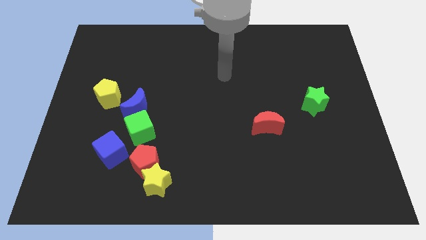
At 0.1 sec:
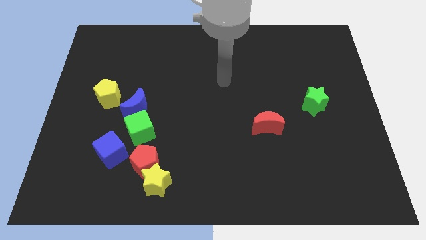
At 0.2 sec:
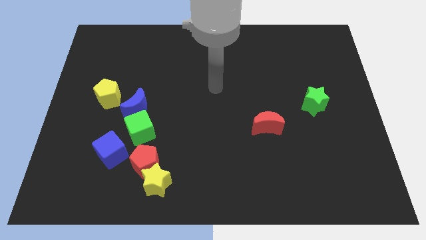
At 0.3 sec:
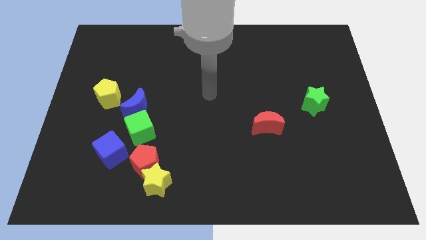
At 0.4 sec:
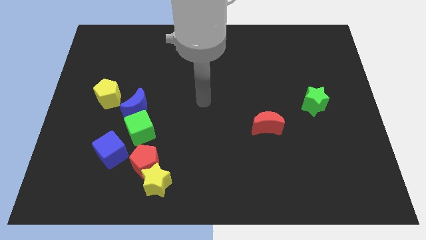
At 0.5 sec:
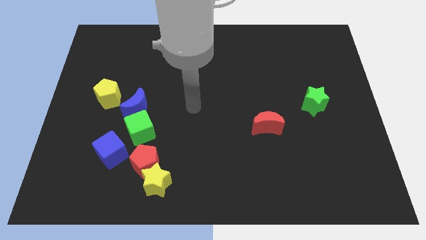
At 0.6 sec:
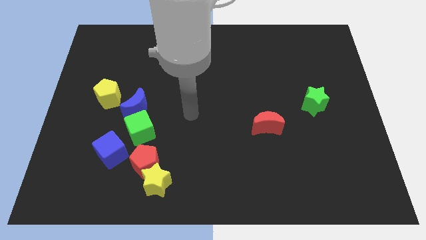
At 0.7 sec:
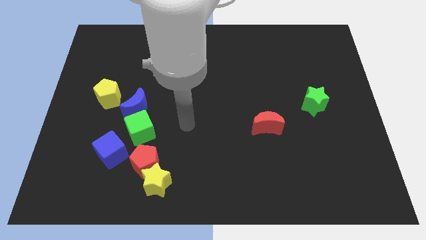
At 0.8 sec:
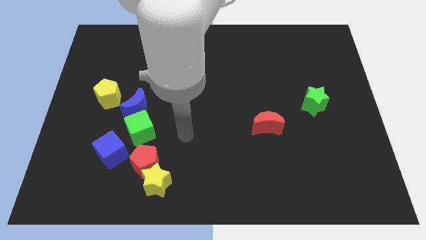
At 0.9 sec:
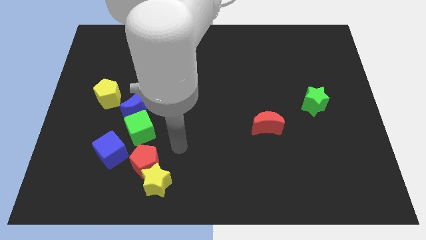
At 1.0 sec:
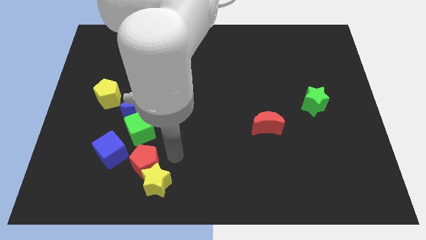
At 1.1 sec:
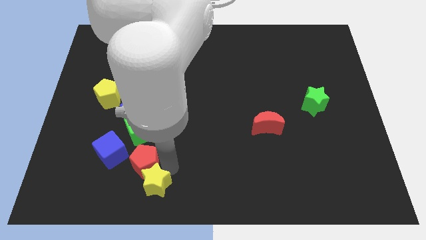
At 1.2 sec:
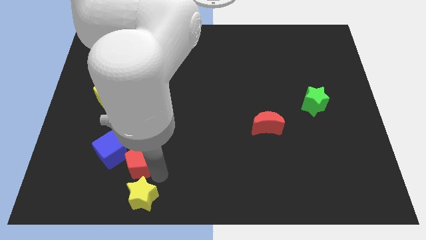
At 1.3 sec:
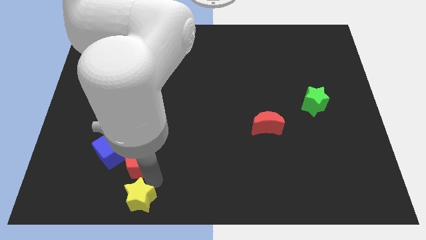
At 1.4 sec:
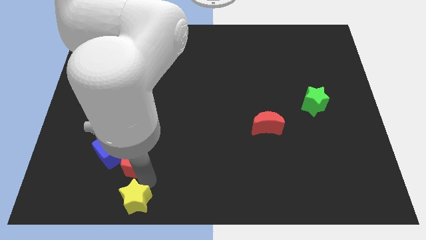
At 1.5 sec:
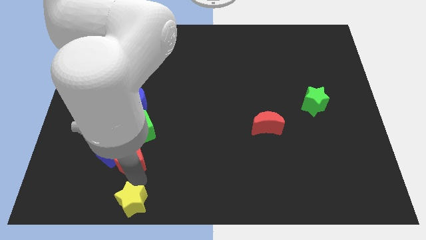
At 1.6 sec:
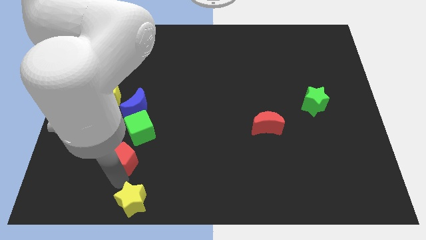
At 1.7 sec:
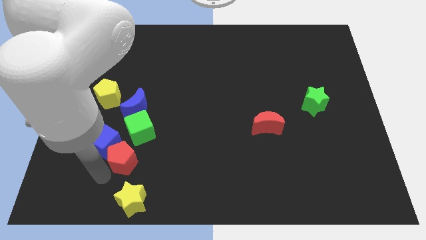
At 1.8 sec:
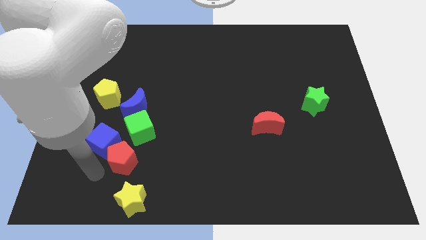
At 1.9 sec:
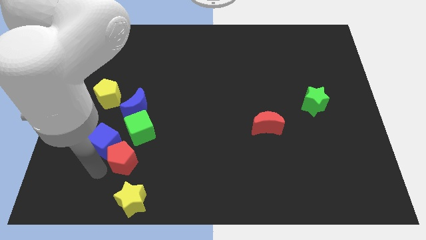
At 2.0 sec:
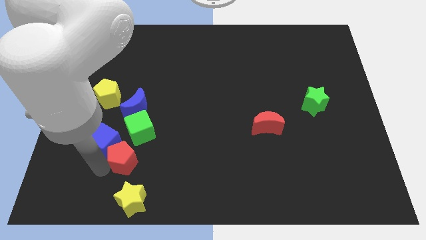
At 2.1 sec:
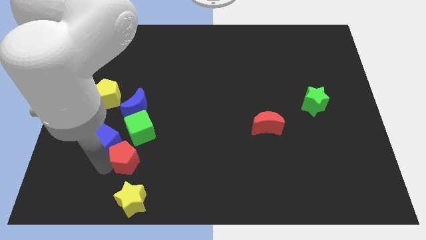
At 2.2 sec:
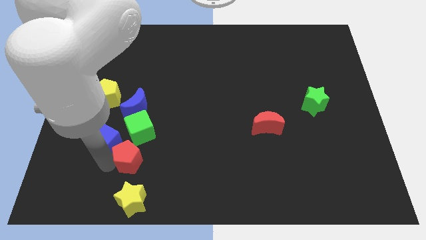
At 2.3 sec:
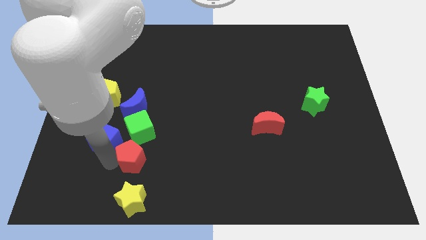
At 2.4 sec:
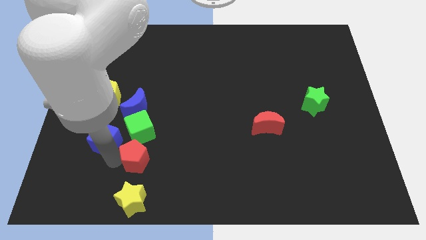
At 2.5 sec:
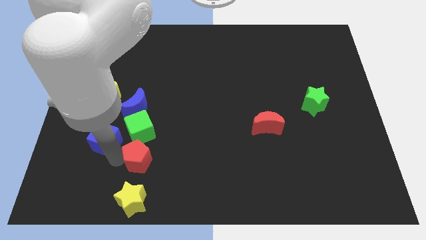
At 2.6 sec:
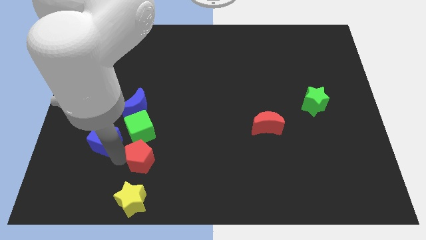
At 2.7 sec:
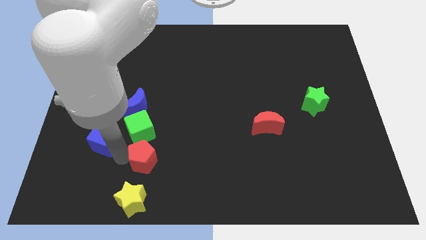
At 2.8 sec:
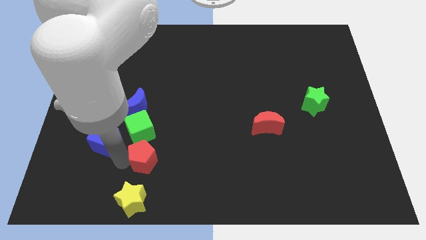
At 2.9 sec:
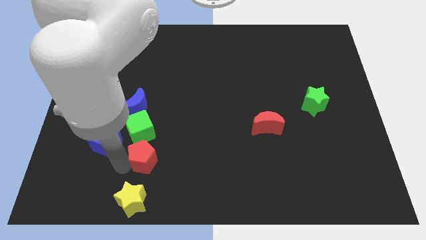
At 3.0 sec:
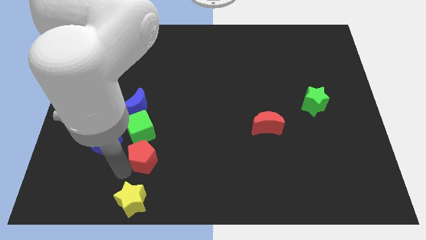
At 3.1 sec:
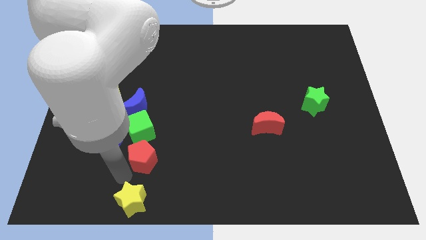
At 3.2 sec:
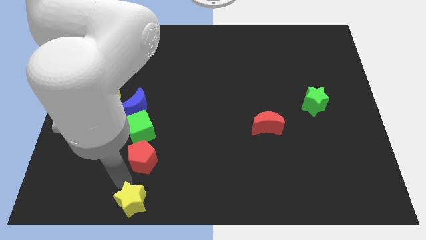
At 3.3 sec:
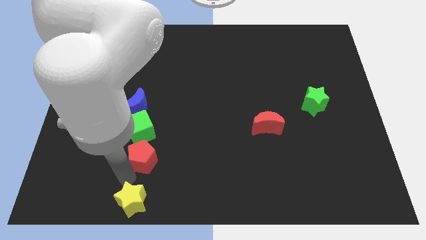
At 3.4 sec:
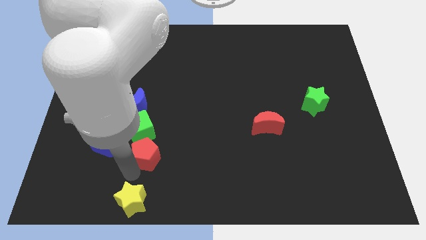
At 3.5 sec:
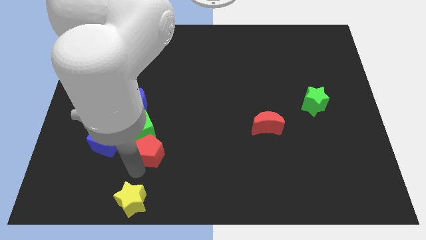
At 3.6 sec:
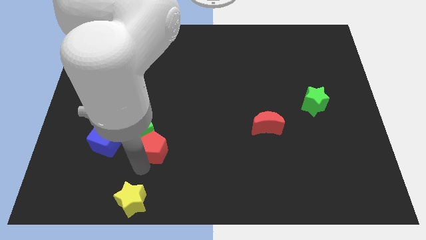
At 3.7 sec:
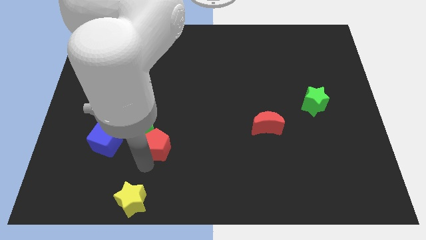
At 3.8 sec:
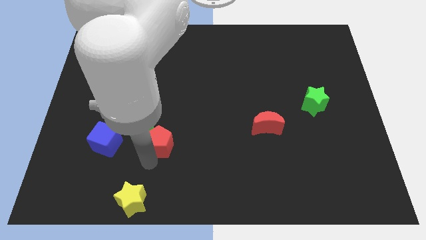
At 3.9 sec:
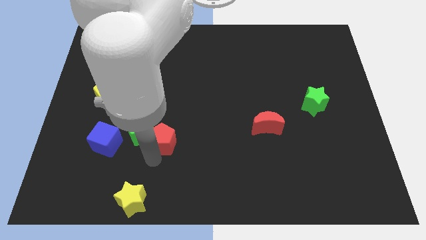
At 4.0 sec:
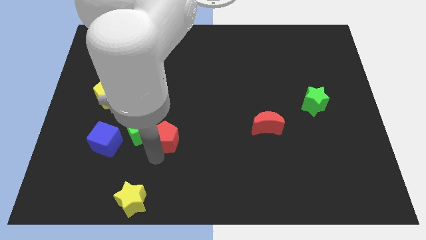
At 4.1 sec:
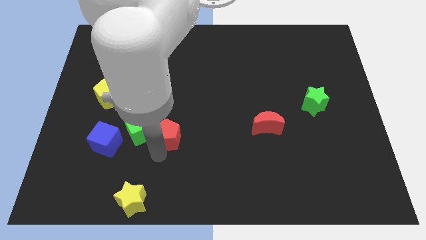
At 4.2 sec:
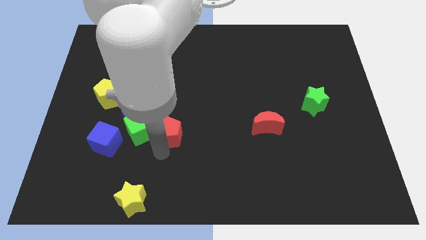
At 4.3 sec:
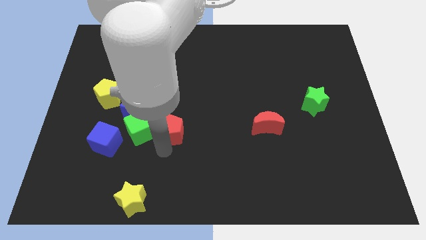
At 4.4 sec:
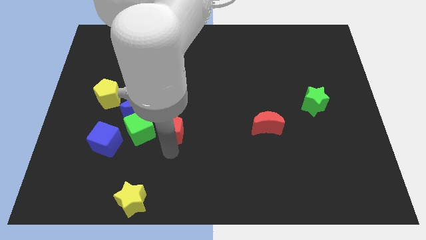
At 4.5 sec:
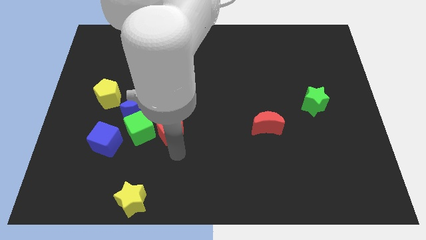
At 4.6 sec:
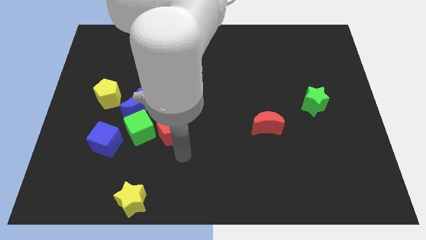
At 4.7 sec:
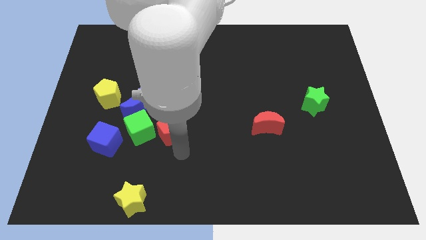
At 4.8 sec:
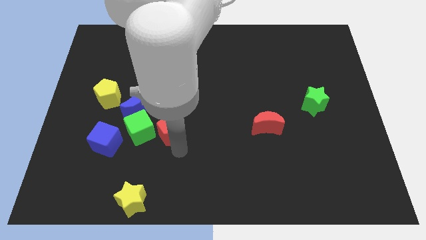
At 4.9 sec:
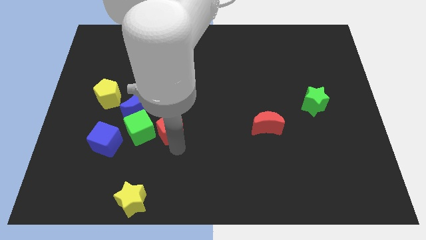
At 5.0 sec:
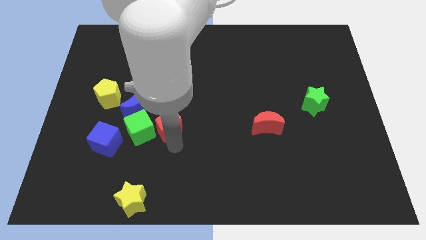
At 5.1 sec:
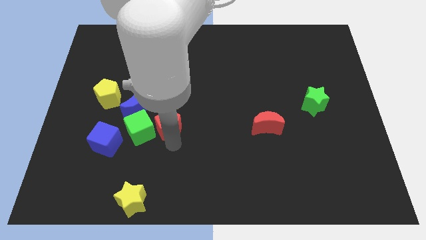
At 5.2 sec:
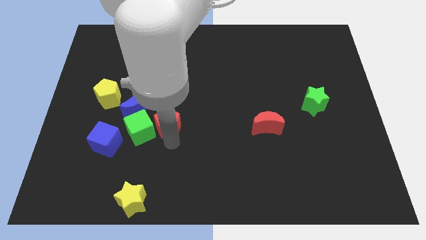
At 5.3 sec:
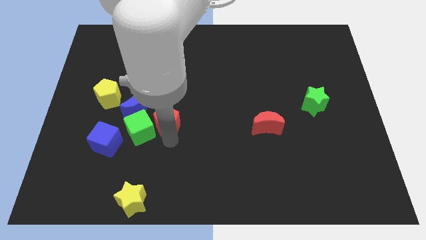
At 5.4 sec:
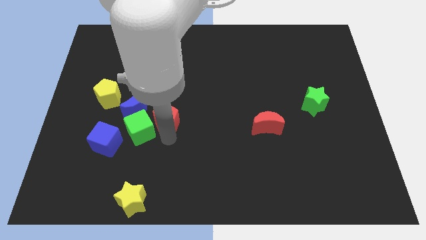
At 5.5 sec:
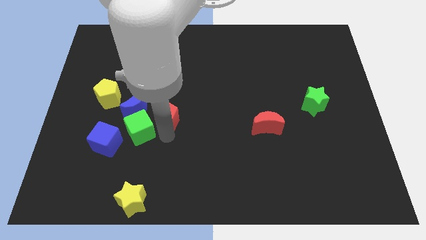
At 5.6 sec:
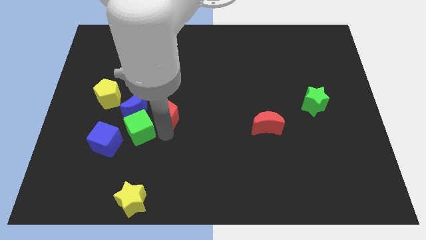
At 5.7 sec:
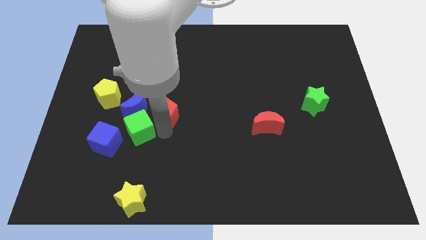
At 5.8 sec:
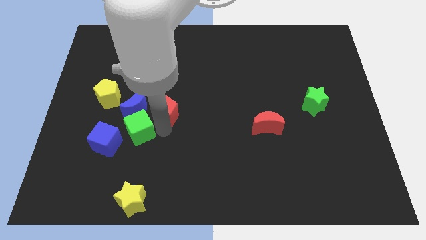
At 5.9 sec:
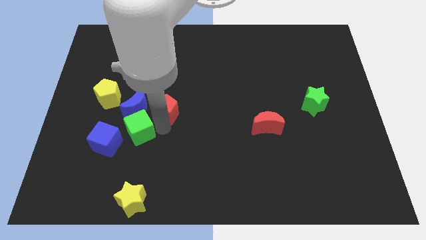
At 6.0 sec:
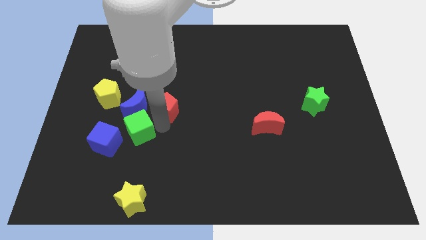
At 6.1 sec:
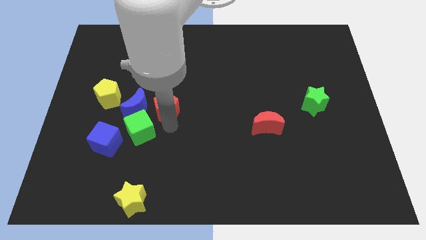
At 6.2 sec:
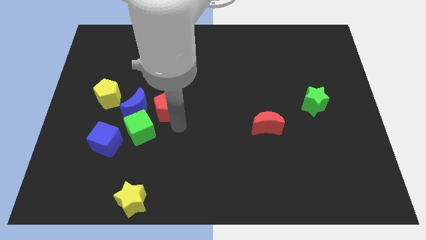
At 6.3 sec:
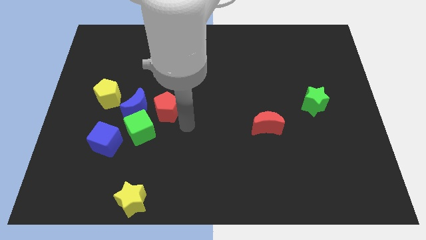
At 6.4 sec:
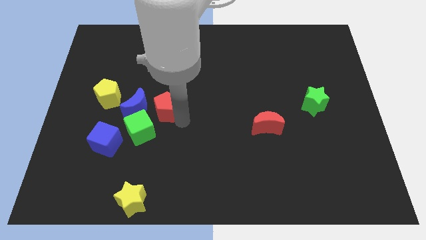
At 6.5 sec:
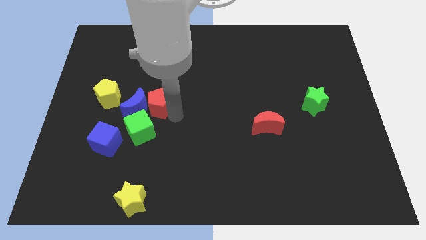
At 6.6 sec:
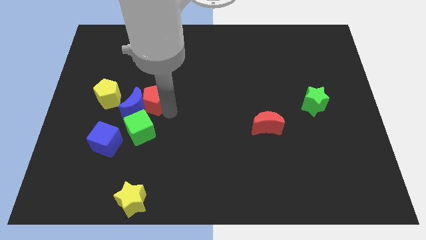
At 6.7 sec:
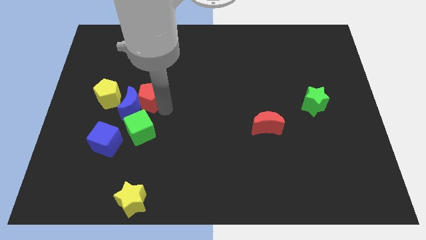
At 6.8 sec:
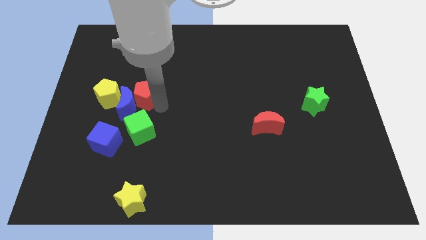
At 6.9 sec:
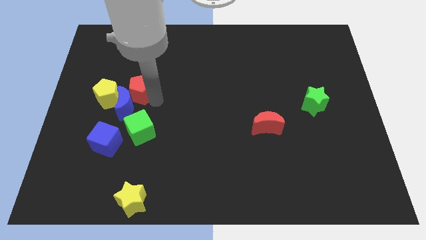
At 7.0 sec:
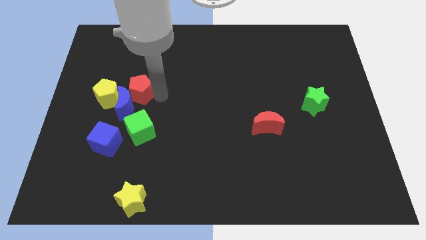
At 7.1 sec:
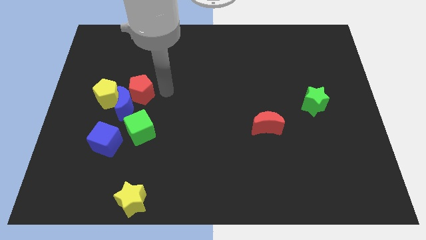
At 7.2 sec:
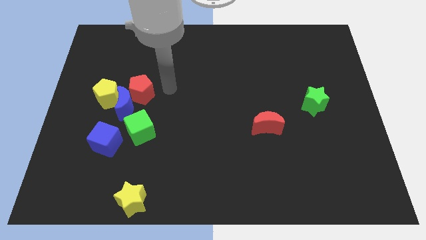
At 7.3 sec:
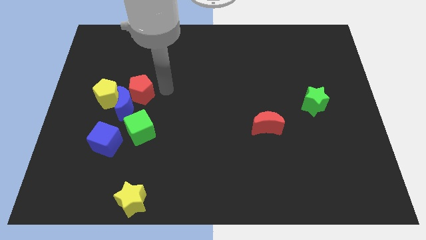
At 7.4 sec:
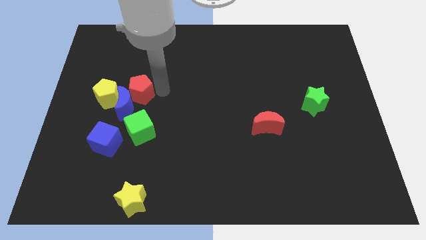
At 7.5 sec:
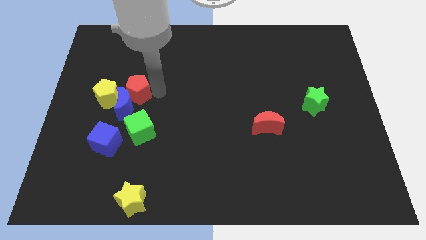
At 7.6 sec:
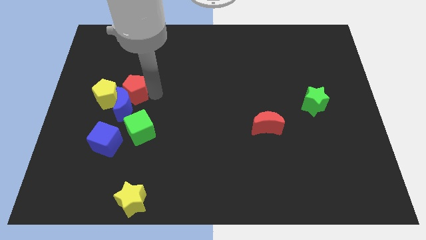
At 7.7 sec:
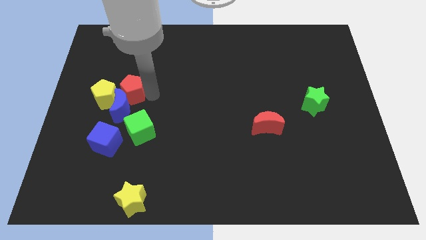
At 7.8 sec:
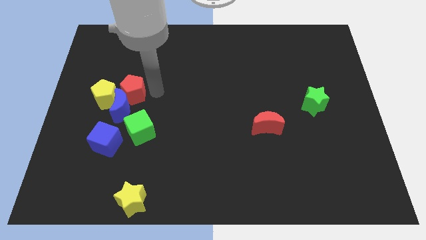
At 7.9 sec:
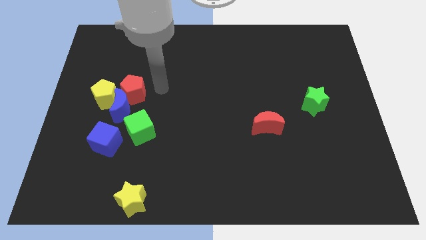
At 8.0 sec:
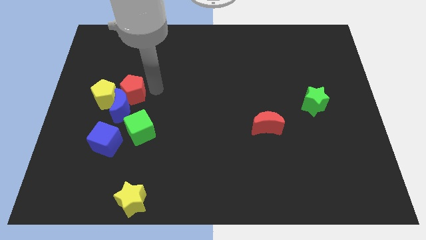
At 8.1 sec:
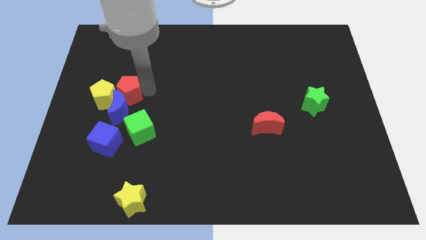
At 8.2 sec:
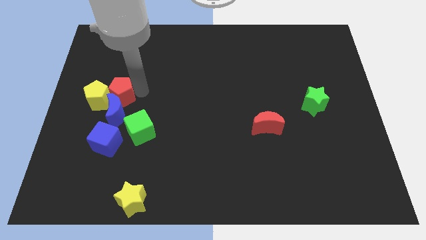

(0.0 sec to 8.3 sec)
put the red pentagon close to the yellow pentagon

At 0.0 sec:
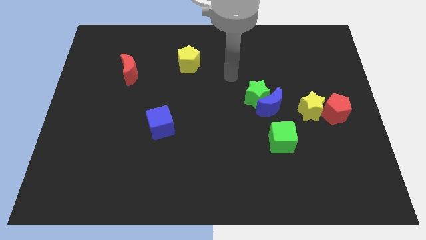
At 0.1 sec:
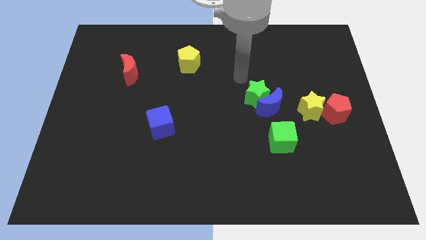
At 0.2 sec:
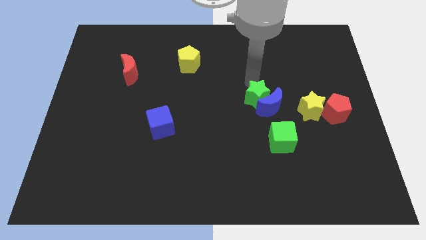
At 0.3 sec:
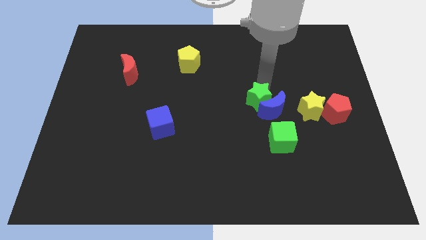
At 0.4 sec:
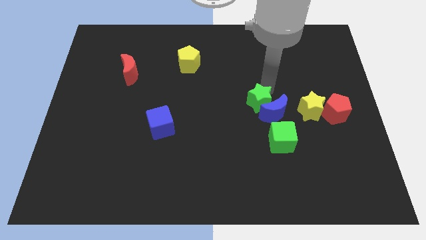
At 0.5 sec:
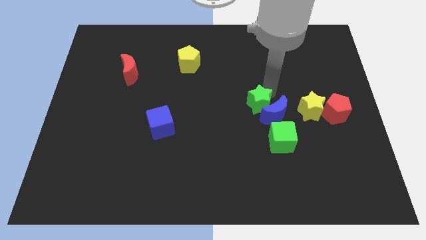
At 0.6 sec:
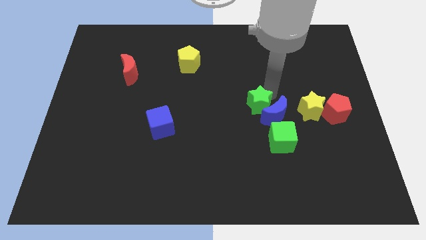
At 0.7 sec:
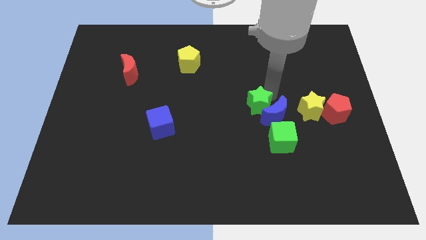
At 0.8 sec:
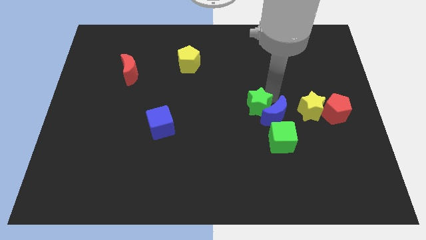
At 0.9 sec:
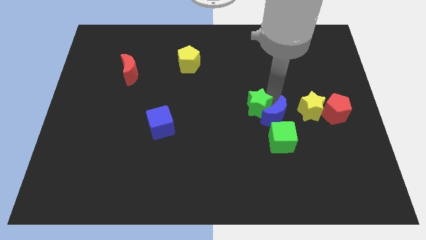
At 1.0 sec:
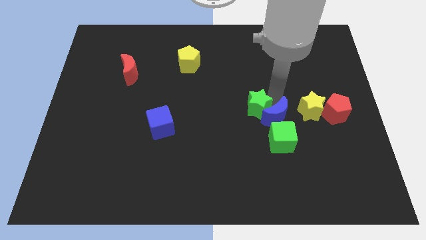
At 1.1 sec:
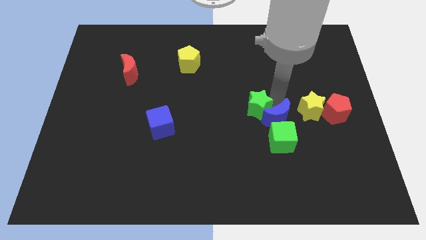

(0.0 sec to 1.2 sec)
slide the blue moon close to the green cube
